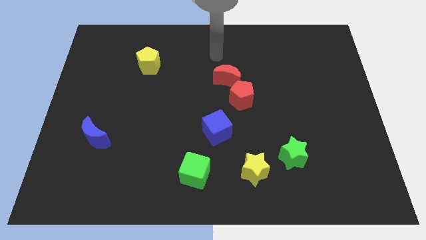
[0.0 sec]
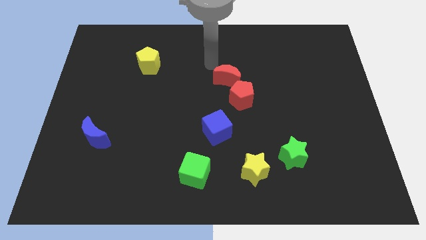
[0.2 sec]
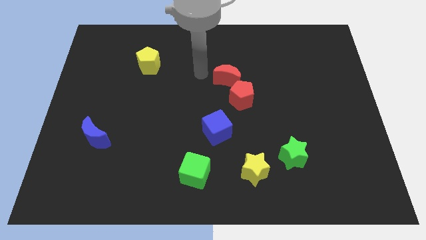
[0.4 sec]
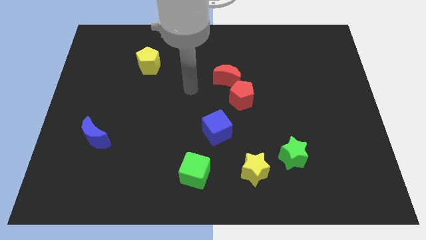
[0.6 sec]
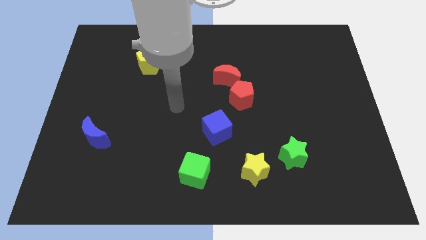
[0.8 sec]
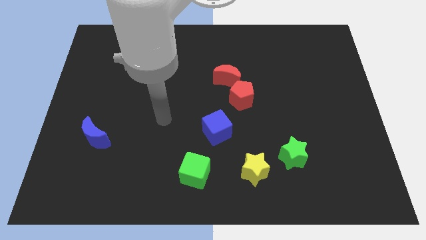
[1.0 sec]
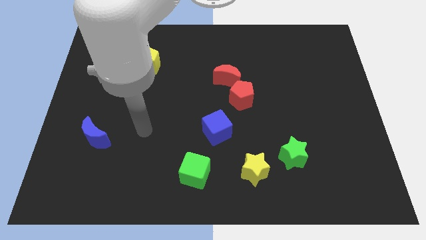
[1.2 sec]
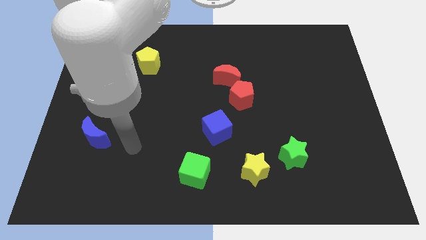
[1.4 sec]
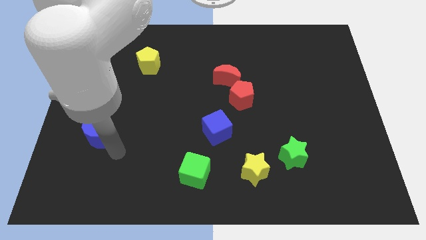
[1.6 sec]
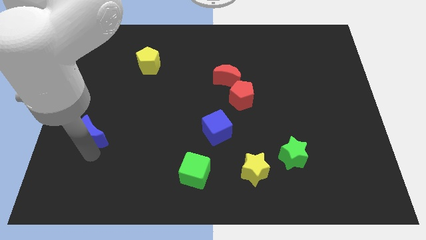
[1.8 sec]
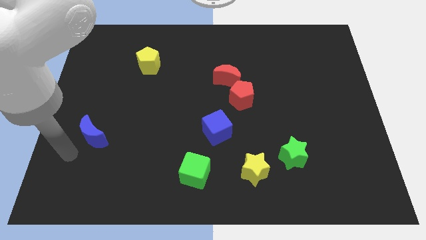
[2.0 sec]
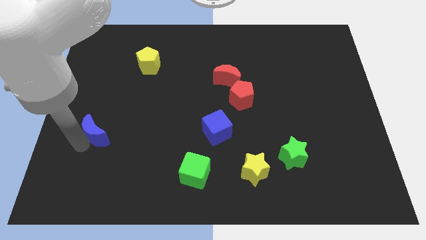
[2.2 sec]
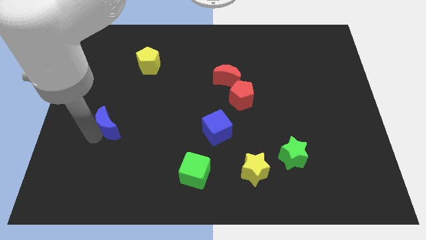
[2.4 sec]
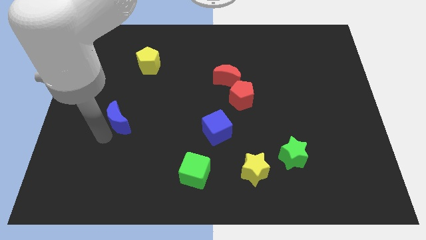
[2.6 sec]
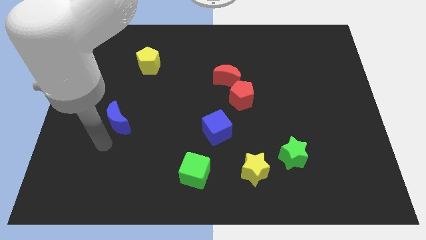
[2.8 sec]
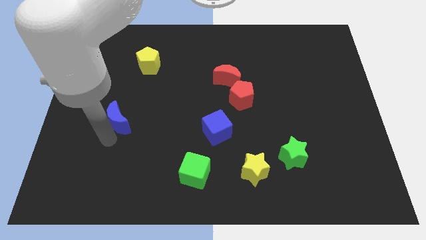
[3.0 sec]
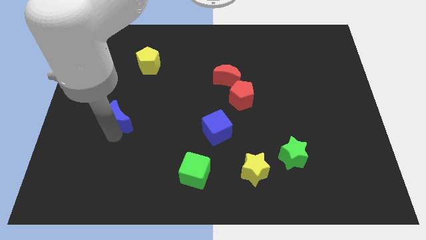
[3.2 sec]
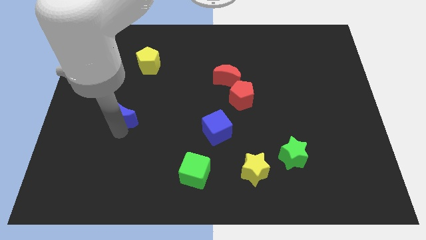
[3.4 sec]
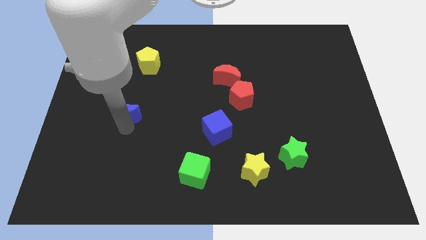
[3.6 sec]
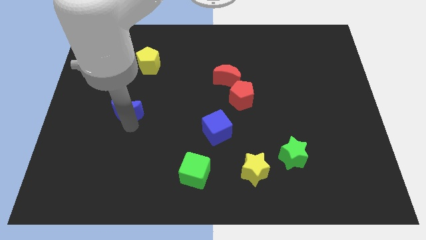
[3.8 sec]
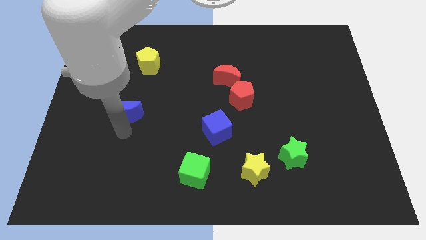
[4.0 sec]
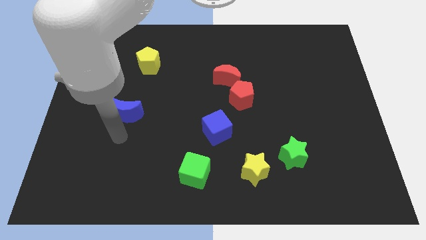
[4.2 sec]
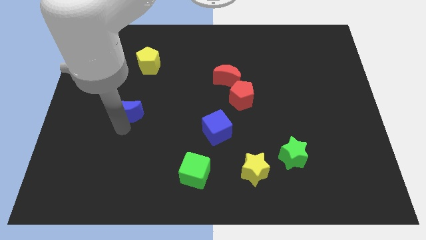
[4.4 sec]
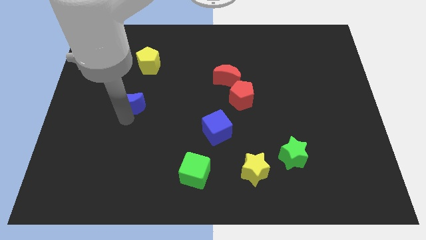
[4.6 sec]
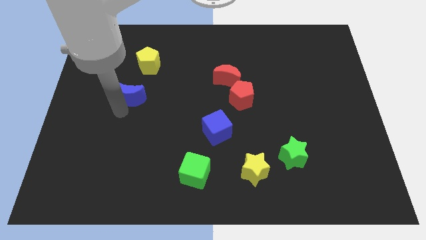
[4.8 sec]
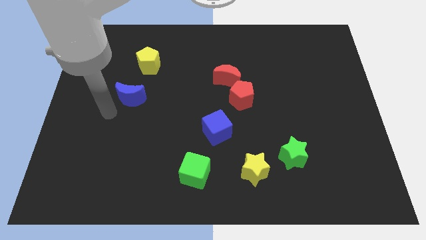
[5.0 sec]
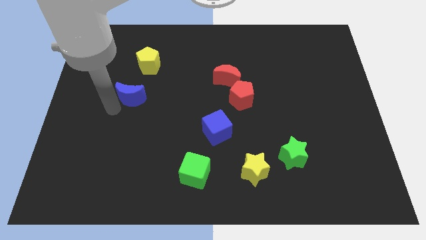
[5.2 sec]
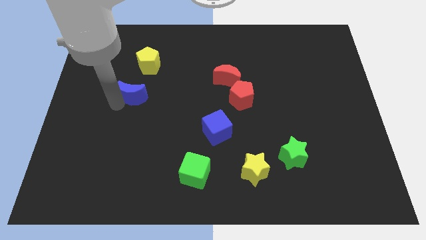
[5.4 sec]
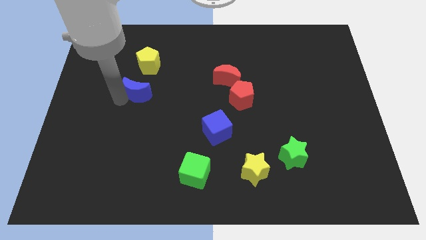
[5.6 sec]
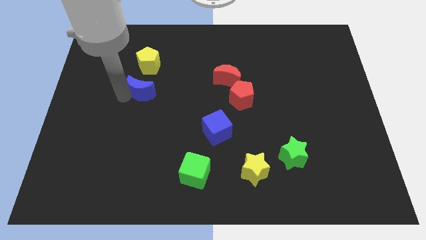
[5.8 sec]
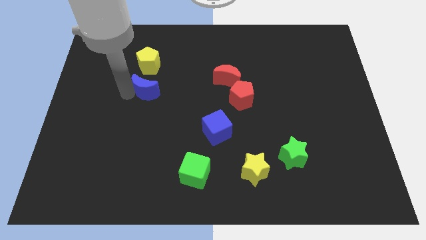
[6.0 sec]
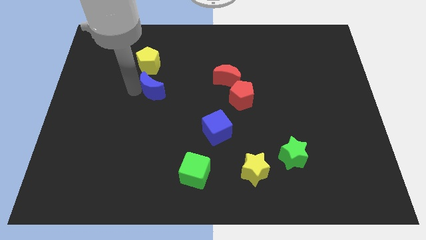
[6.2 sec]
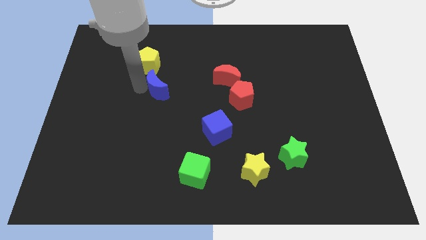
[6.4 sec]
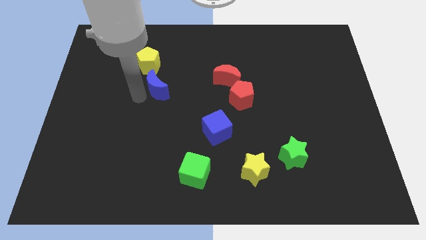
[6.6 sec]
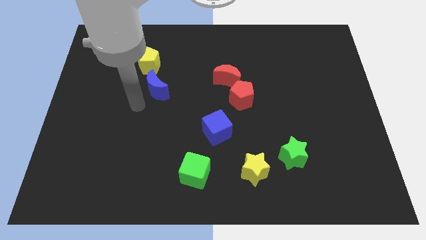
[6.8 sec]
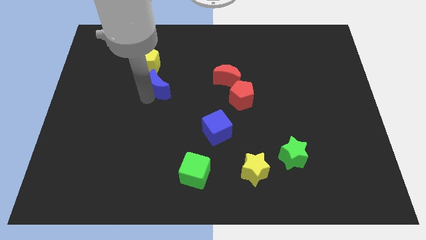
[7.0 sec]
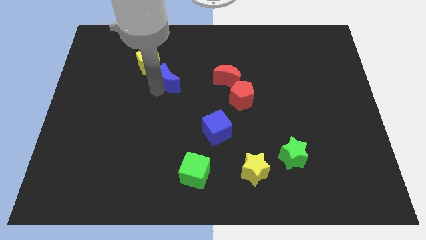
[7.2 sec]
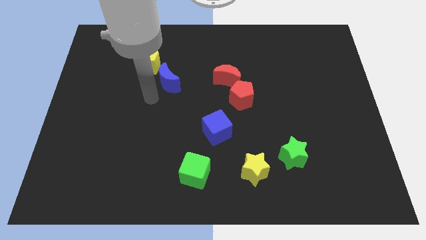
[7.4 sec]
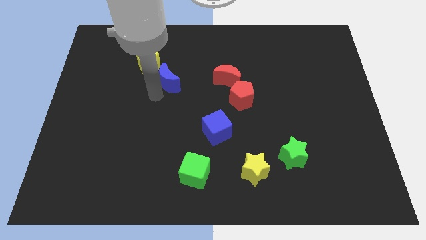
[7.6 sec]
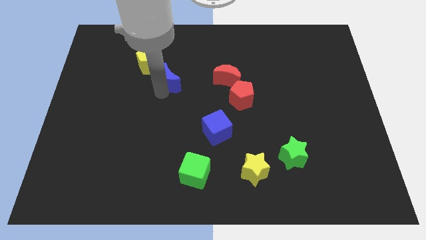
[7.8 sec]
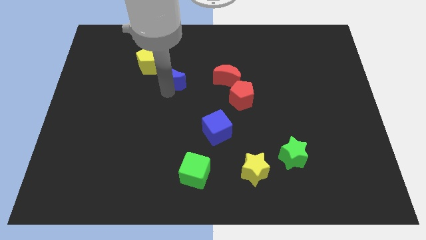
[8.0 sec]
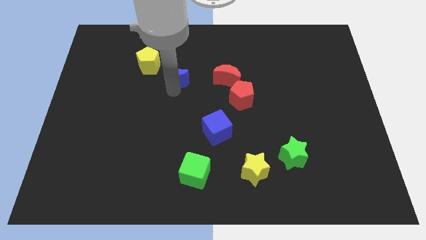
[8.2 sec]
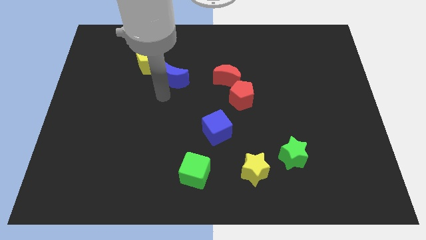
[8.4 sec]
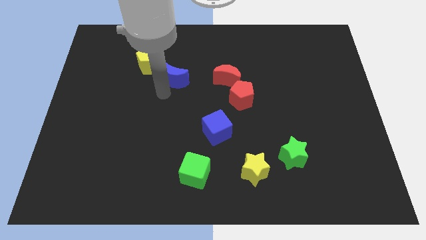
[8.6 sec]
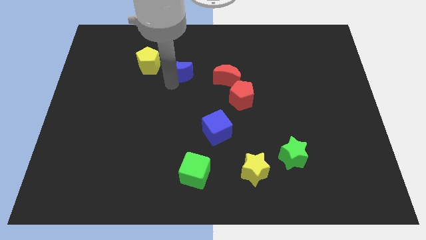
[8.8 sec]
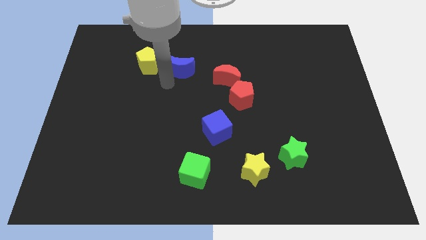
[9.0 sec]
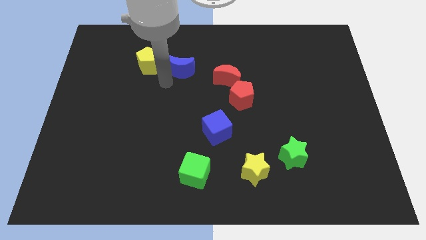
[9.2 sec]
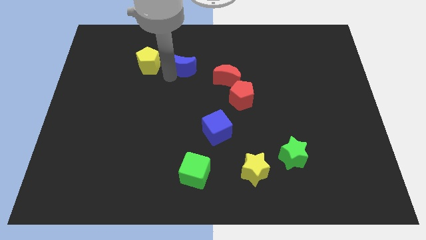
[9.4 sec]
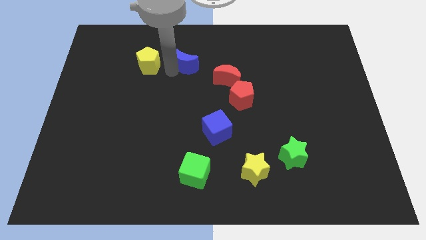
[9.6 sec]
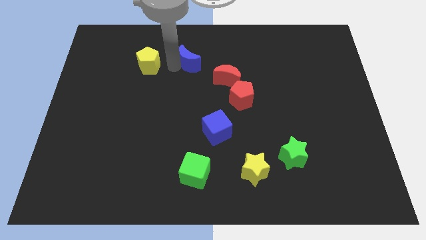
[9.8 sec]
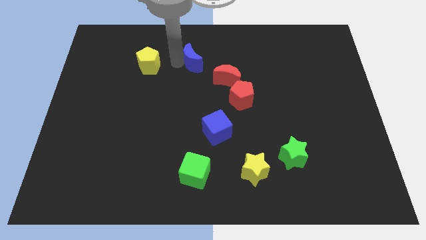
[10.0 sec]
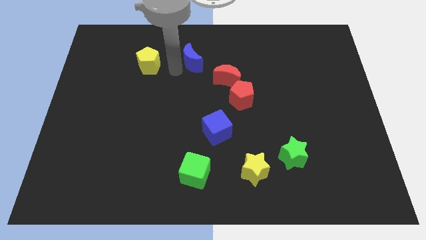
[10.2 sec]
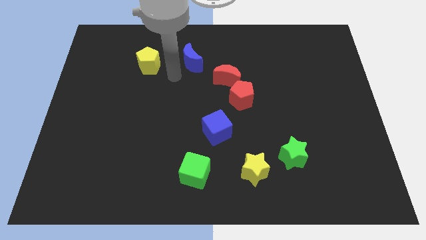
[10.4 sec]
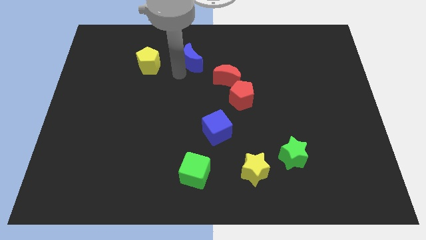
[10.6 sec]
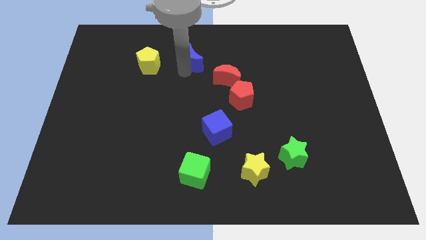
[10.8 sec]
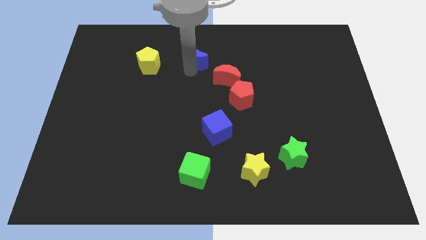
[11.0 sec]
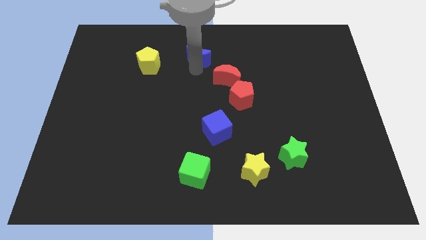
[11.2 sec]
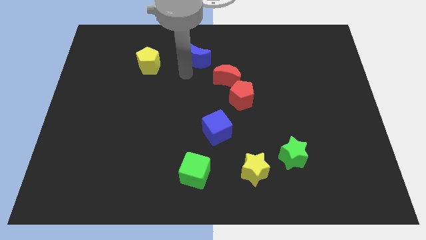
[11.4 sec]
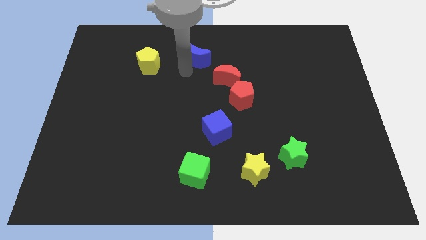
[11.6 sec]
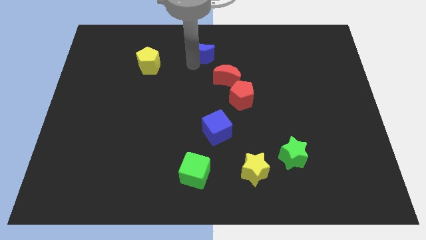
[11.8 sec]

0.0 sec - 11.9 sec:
put the blue moon to the top side

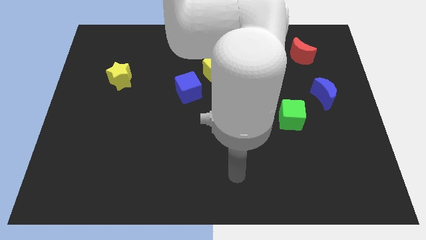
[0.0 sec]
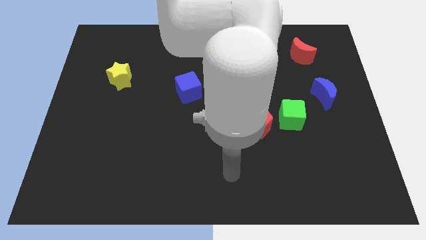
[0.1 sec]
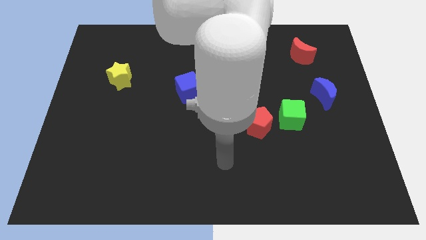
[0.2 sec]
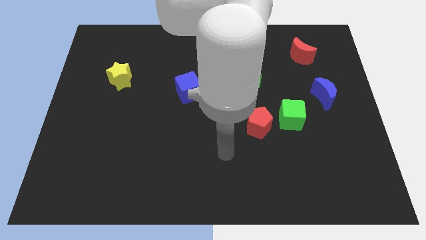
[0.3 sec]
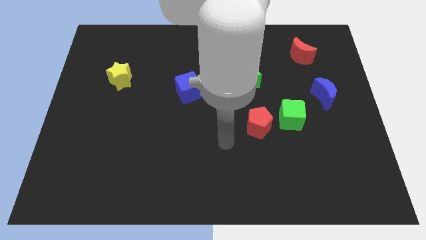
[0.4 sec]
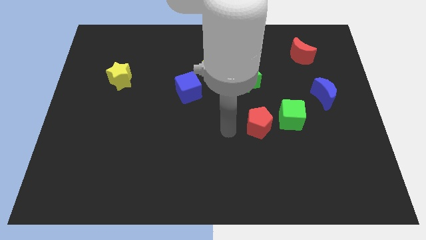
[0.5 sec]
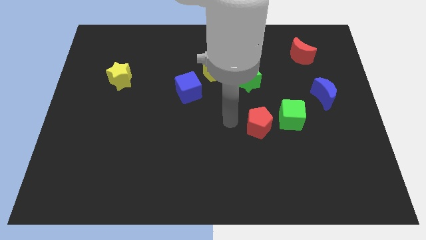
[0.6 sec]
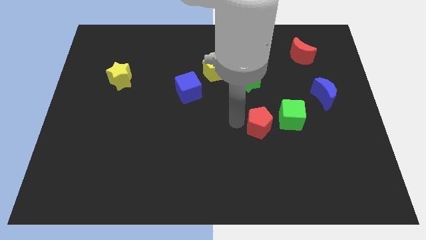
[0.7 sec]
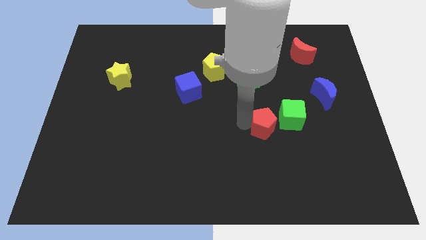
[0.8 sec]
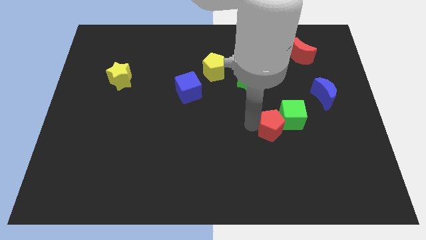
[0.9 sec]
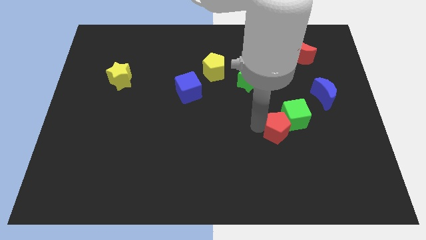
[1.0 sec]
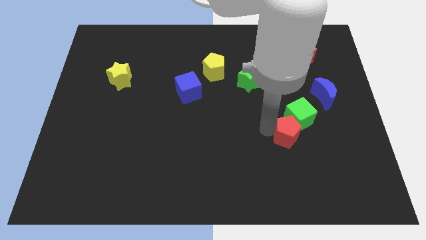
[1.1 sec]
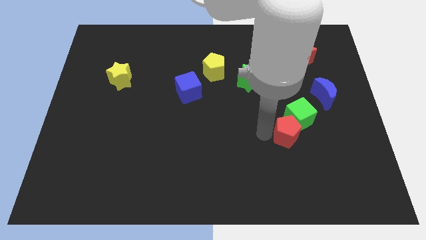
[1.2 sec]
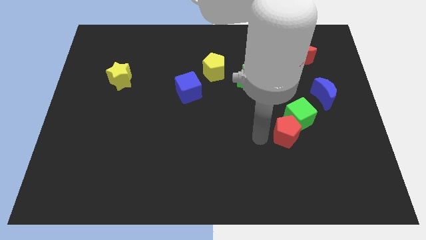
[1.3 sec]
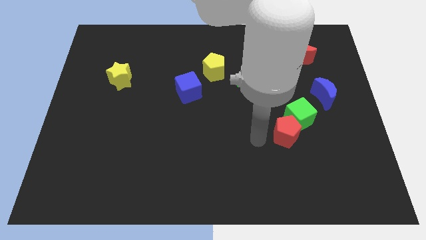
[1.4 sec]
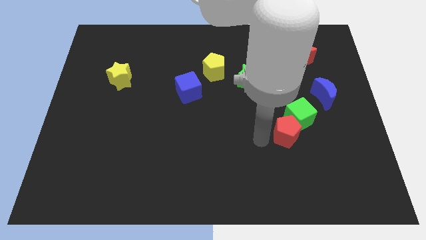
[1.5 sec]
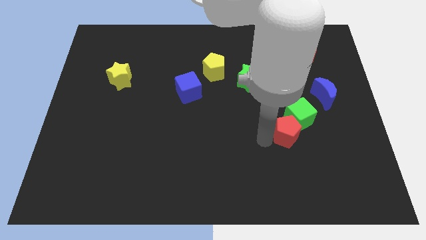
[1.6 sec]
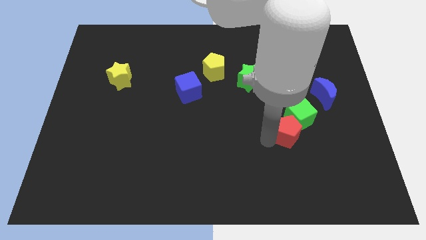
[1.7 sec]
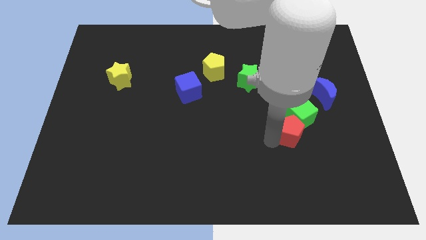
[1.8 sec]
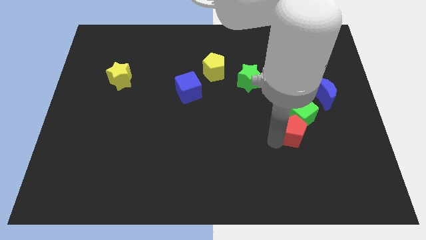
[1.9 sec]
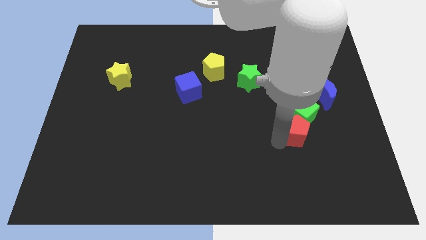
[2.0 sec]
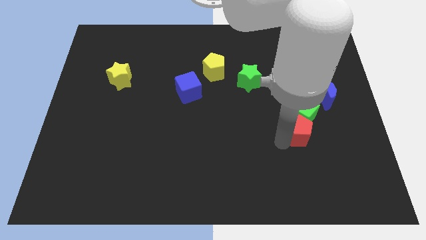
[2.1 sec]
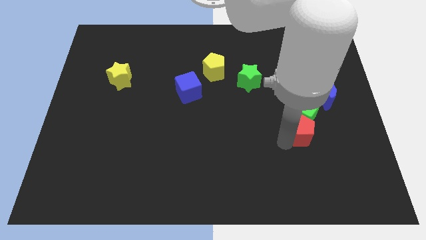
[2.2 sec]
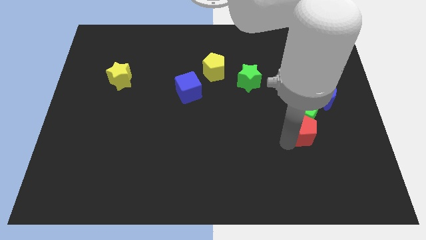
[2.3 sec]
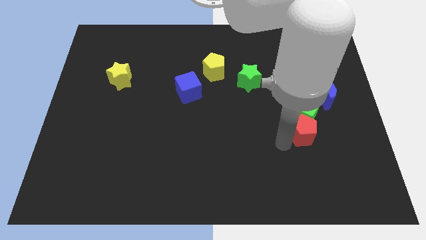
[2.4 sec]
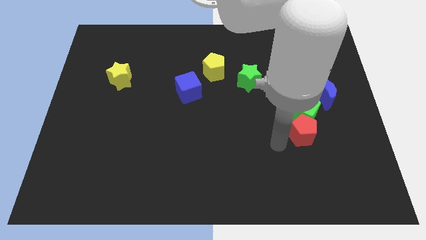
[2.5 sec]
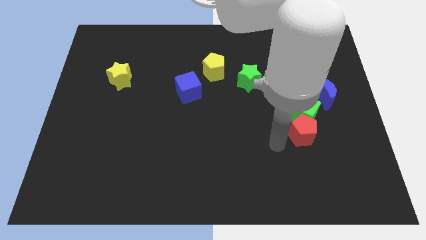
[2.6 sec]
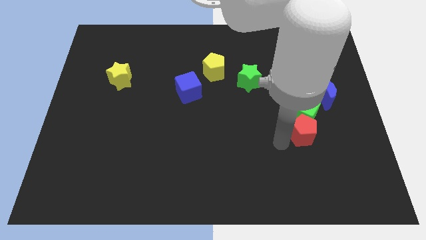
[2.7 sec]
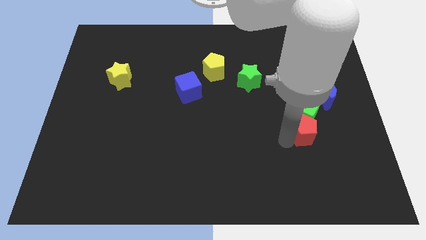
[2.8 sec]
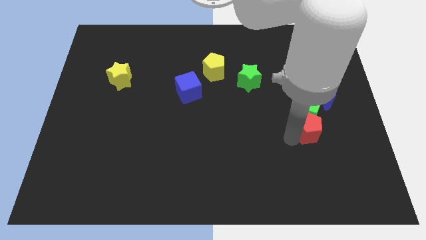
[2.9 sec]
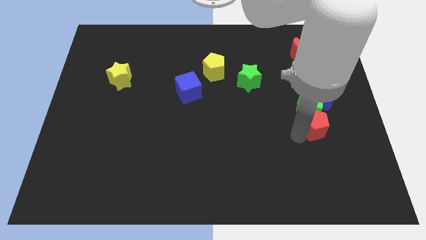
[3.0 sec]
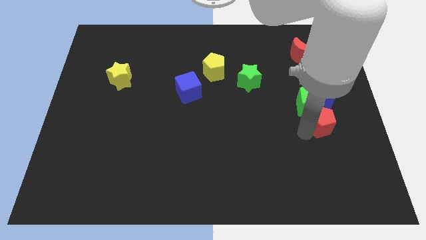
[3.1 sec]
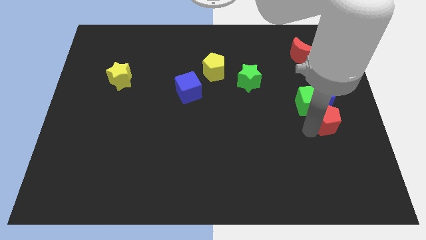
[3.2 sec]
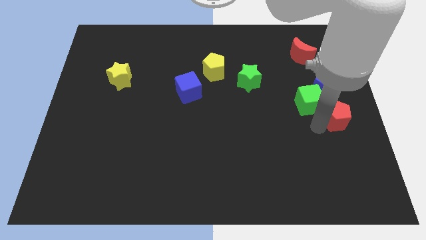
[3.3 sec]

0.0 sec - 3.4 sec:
put the red pentagon to the center right
